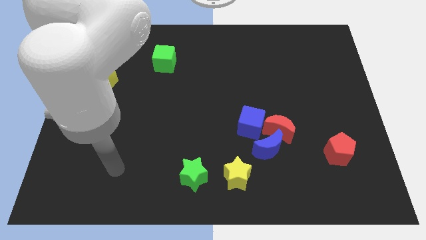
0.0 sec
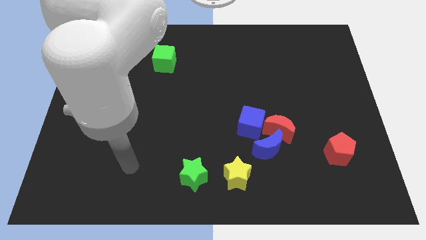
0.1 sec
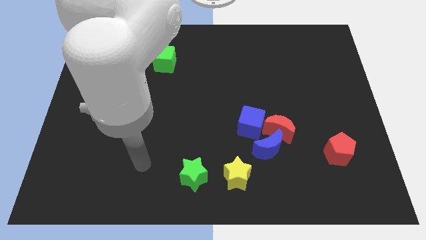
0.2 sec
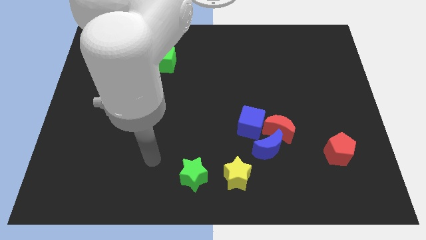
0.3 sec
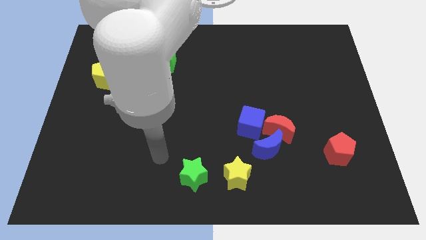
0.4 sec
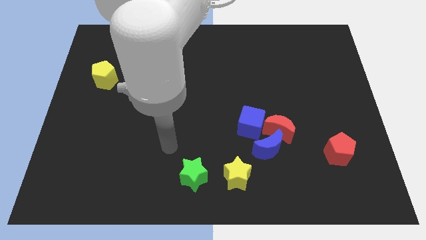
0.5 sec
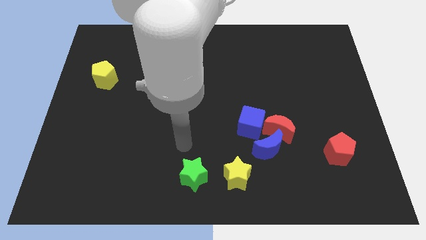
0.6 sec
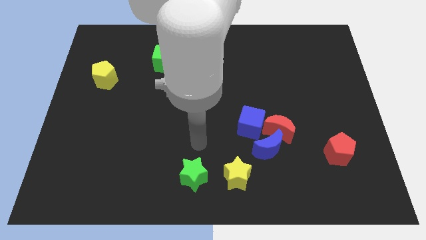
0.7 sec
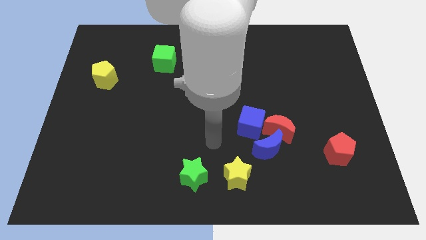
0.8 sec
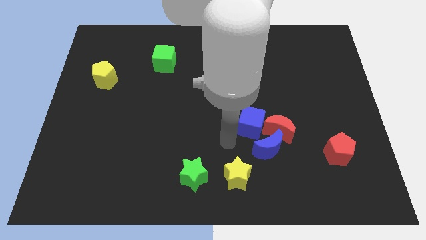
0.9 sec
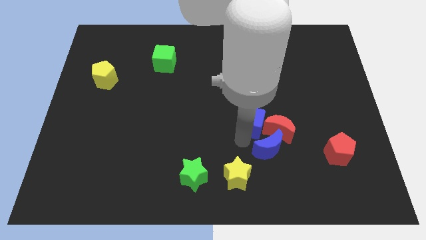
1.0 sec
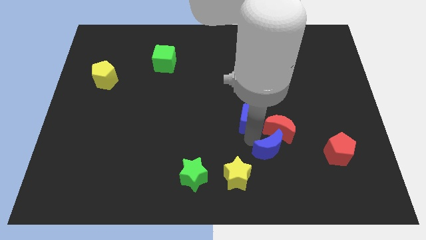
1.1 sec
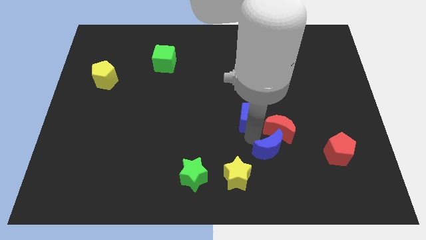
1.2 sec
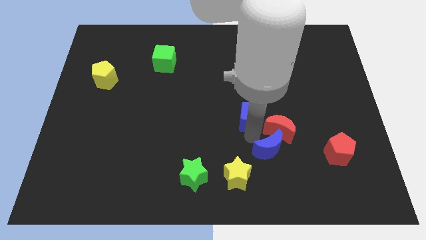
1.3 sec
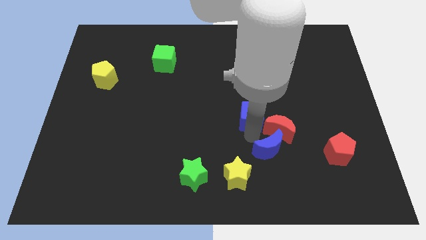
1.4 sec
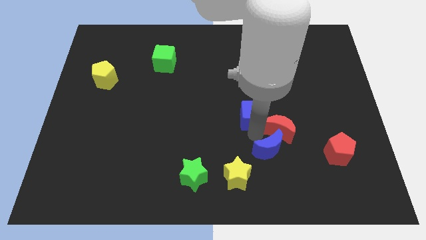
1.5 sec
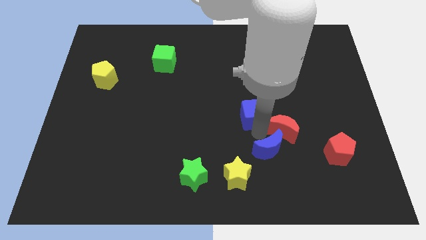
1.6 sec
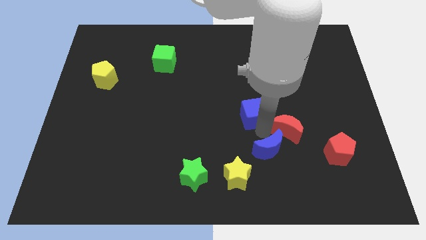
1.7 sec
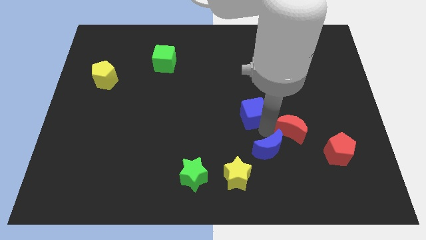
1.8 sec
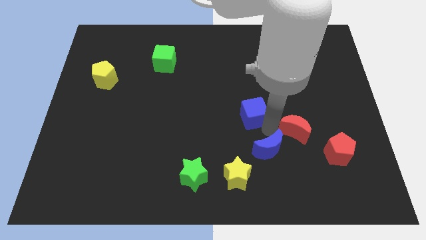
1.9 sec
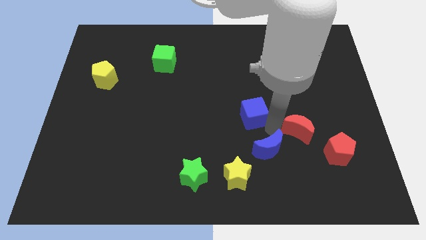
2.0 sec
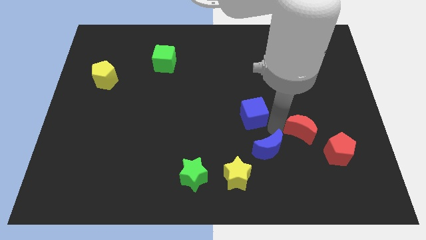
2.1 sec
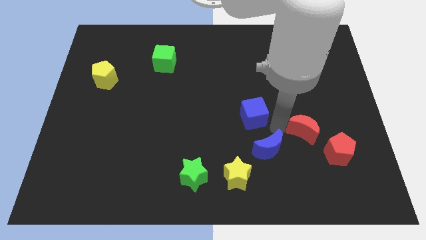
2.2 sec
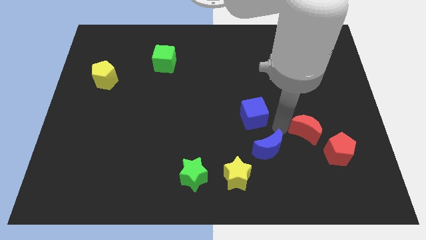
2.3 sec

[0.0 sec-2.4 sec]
separate the red moon from the blue moon and blue cube

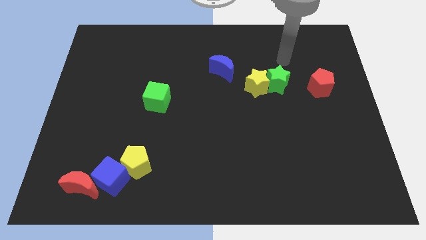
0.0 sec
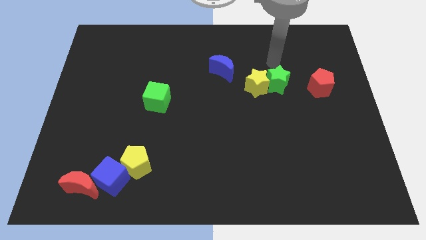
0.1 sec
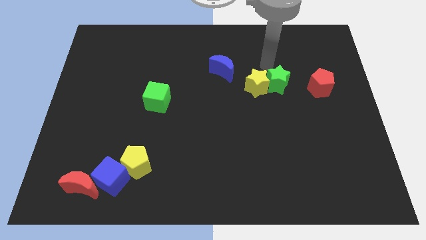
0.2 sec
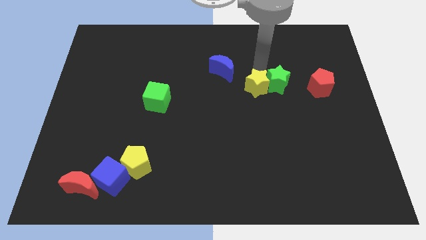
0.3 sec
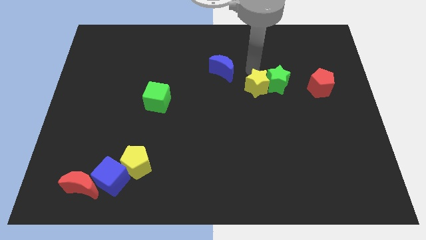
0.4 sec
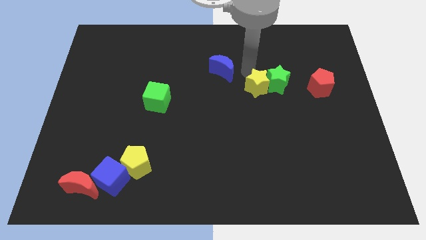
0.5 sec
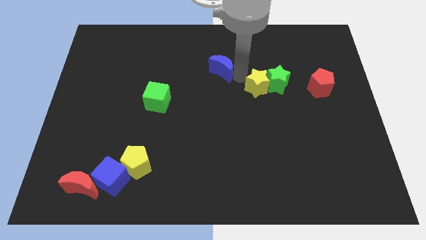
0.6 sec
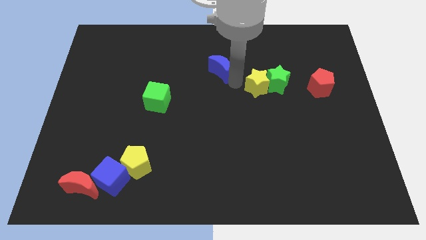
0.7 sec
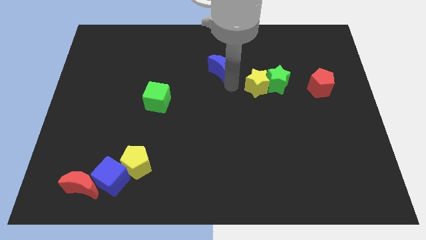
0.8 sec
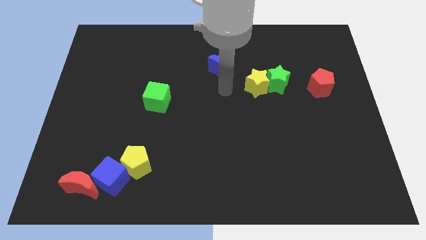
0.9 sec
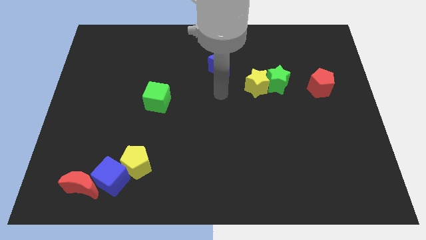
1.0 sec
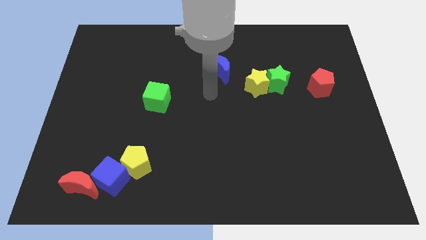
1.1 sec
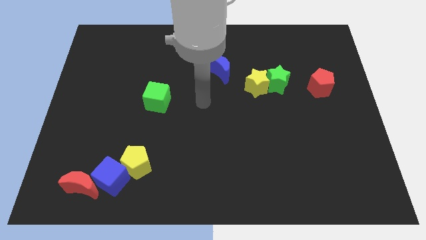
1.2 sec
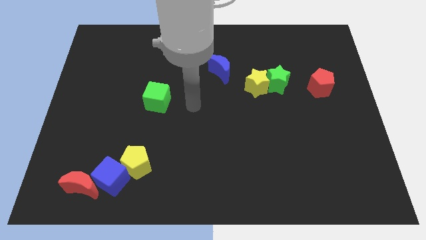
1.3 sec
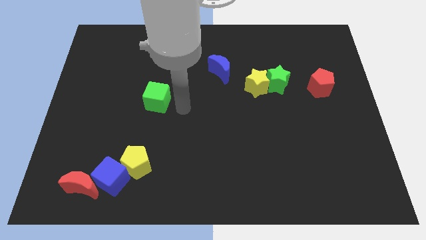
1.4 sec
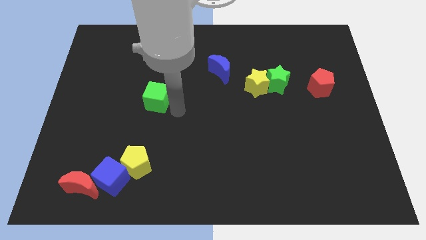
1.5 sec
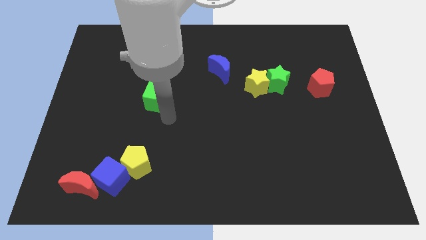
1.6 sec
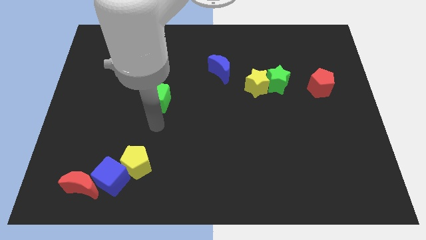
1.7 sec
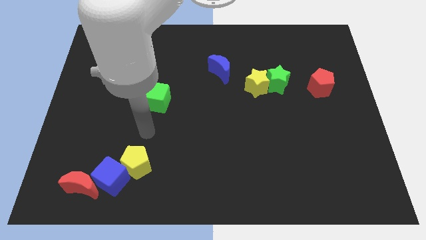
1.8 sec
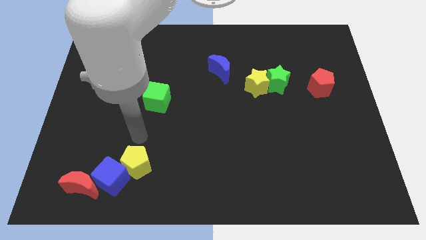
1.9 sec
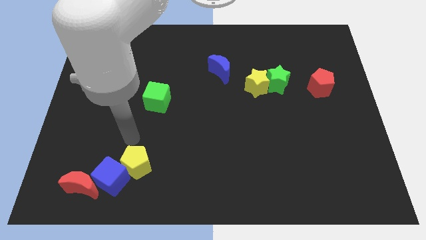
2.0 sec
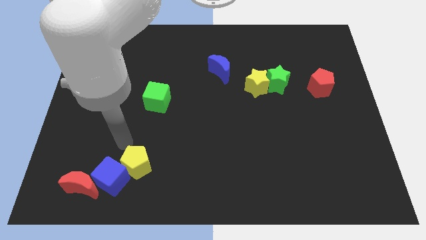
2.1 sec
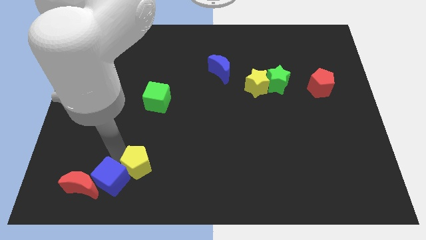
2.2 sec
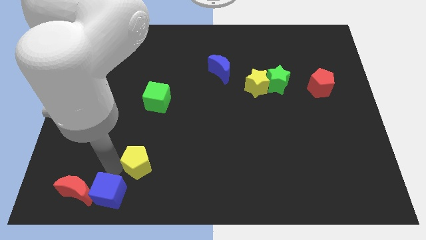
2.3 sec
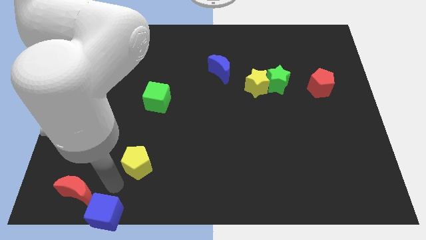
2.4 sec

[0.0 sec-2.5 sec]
separate the yellow pentagon from the blue cube

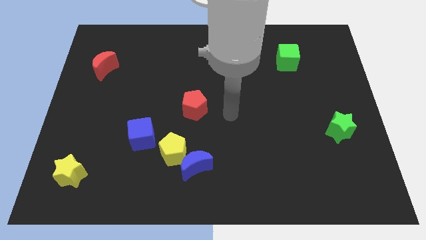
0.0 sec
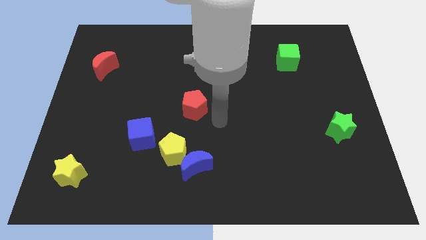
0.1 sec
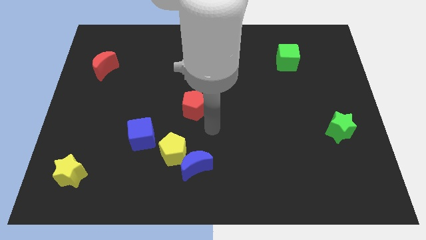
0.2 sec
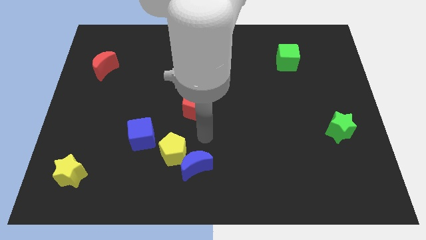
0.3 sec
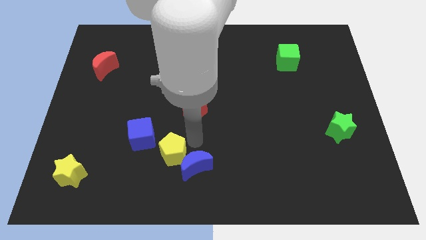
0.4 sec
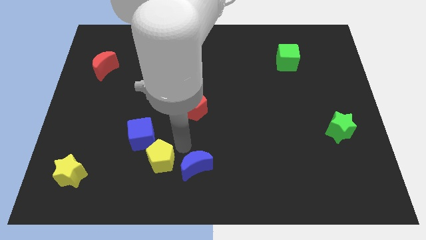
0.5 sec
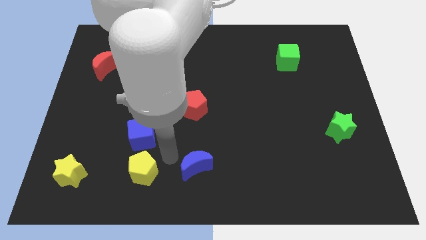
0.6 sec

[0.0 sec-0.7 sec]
separate the blue moon from the yellow pentagon

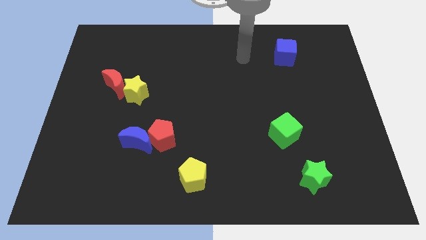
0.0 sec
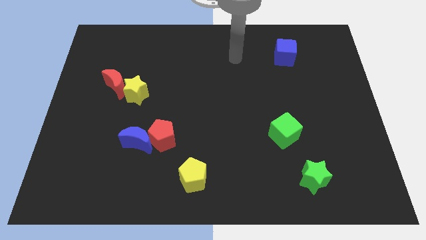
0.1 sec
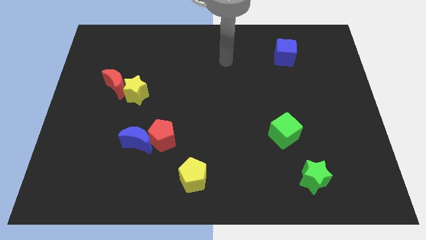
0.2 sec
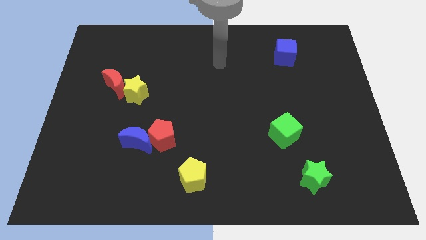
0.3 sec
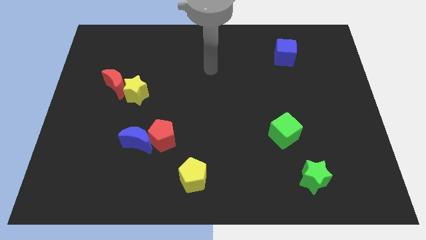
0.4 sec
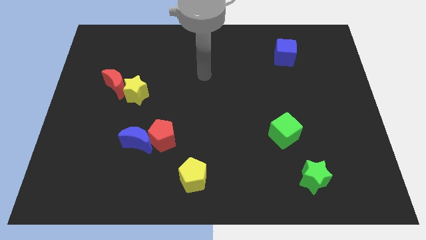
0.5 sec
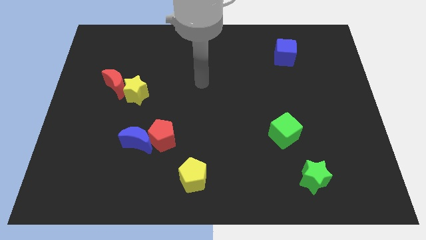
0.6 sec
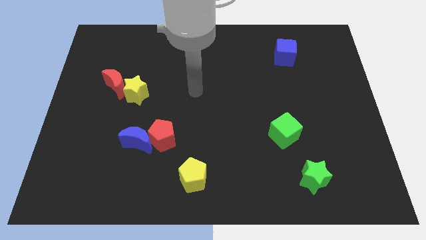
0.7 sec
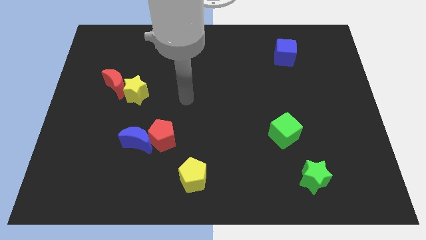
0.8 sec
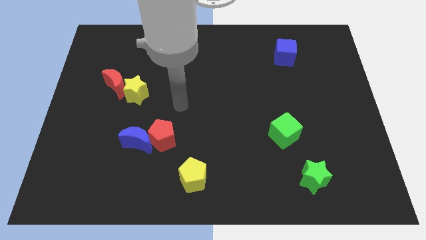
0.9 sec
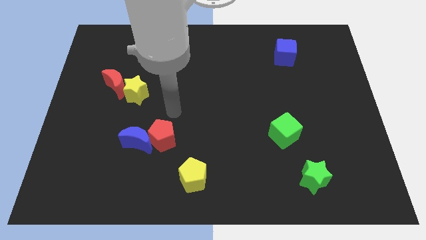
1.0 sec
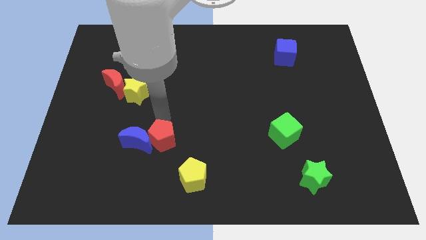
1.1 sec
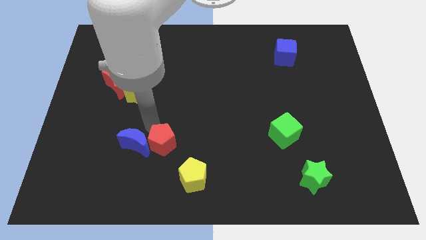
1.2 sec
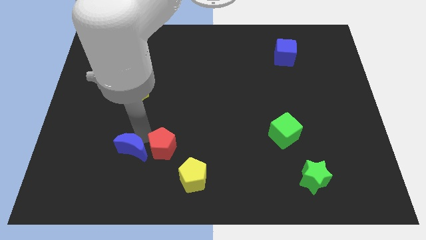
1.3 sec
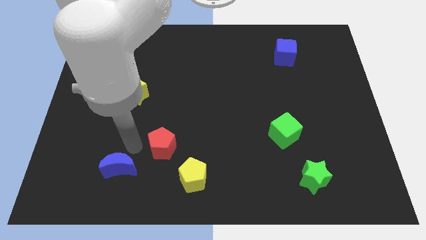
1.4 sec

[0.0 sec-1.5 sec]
move the red pentagon away from the blue moon

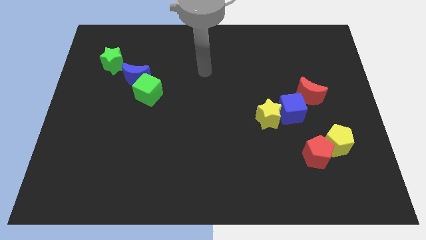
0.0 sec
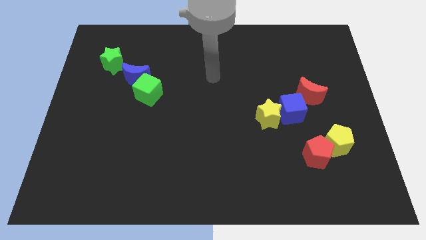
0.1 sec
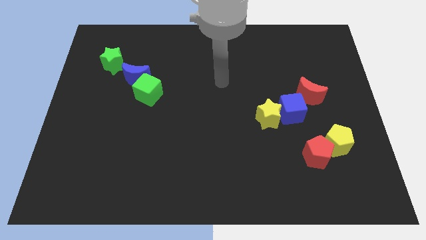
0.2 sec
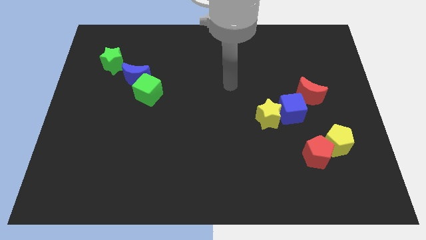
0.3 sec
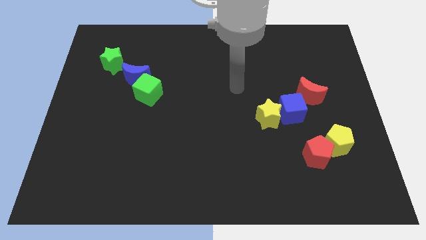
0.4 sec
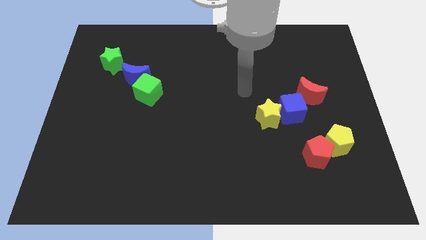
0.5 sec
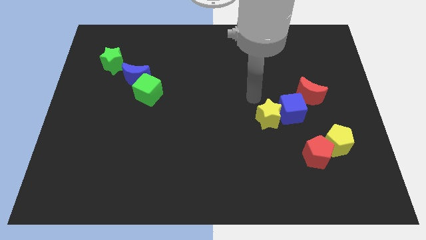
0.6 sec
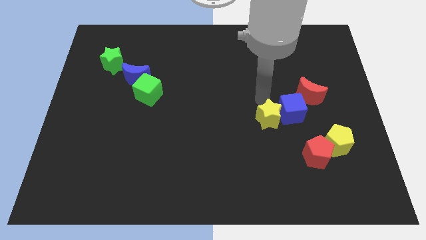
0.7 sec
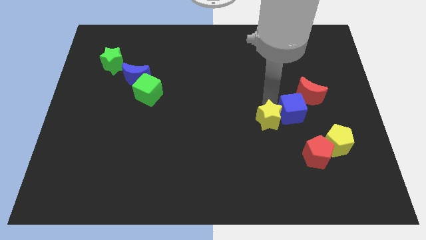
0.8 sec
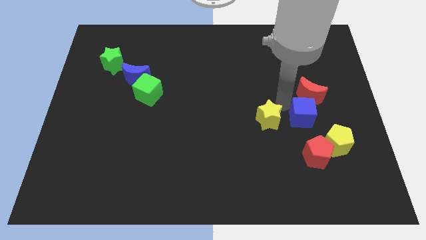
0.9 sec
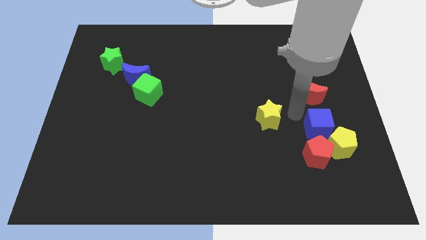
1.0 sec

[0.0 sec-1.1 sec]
pull the yellow star apart from the blue cube

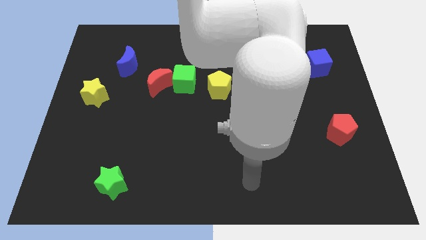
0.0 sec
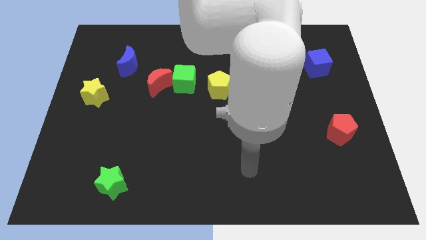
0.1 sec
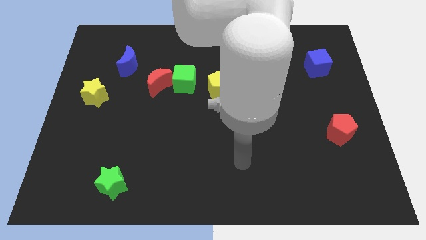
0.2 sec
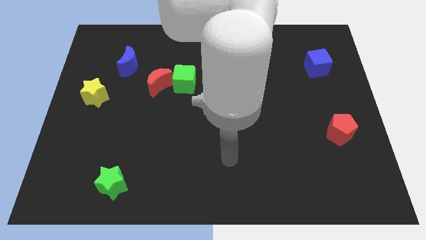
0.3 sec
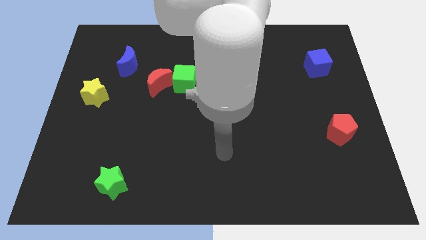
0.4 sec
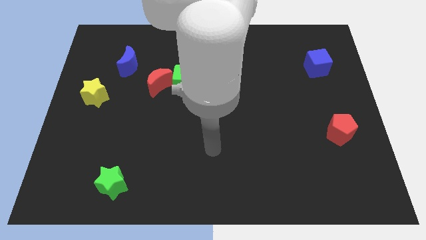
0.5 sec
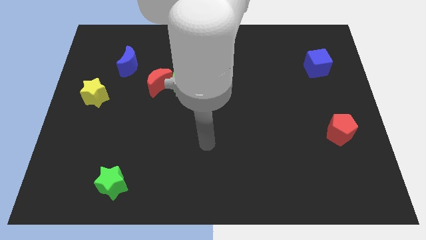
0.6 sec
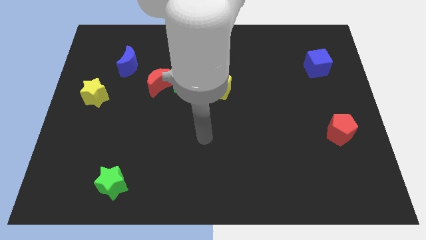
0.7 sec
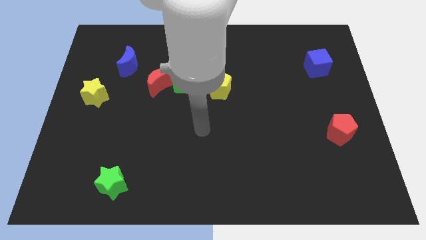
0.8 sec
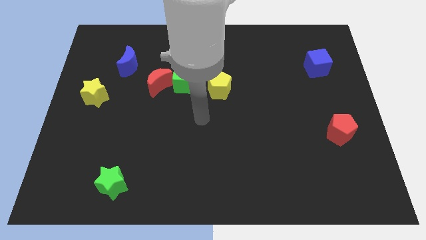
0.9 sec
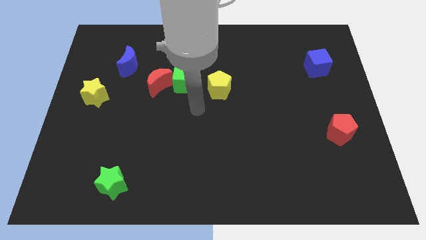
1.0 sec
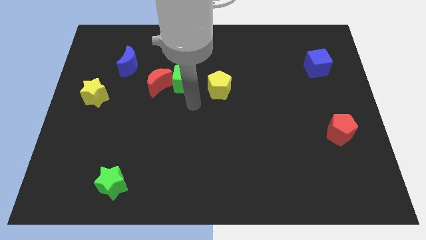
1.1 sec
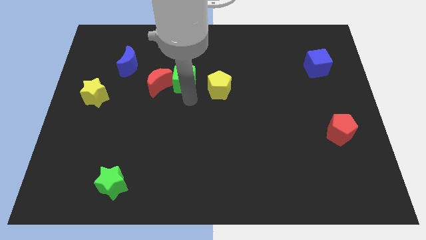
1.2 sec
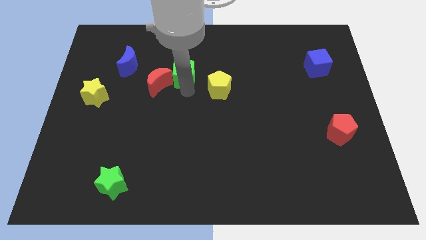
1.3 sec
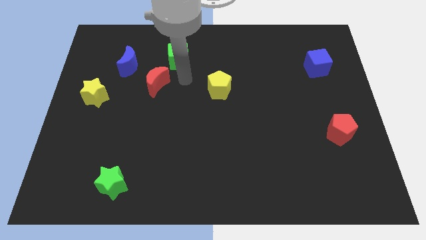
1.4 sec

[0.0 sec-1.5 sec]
pull the red moon apart from the green cube
